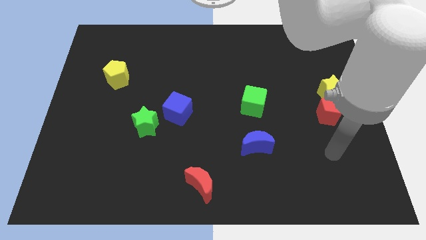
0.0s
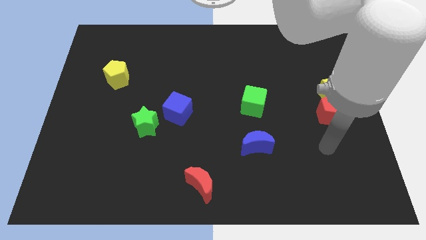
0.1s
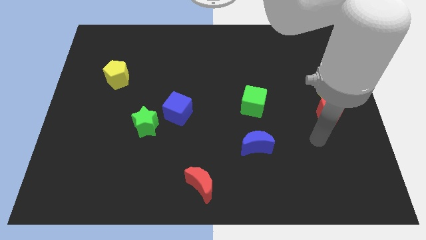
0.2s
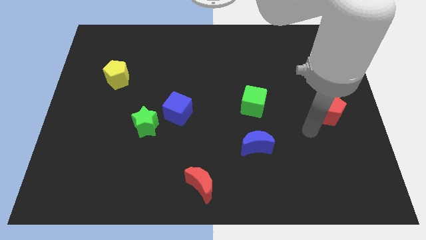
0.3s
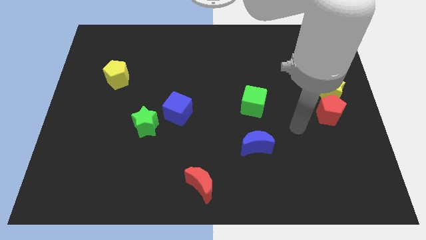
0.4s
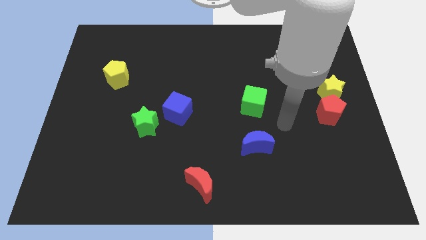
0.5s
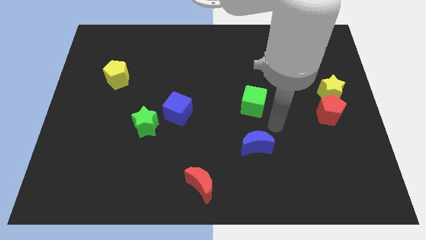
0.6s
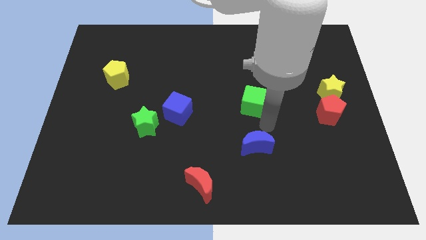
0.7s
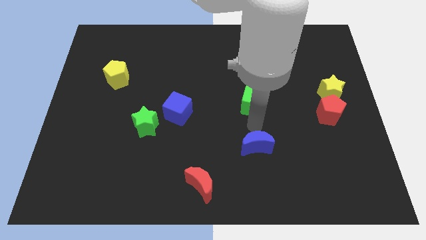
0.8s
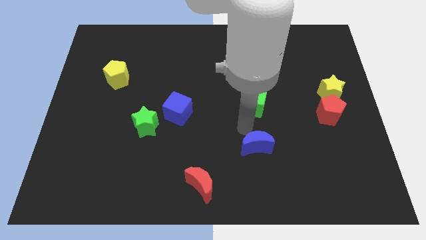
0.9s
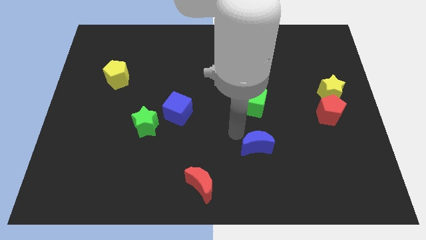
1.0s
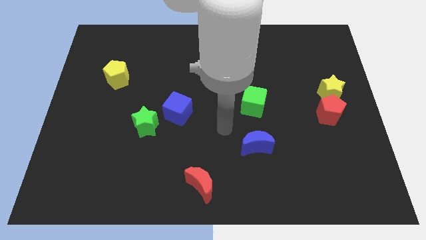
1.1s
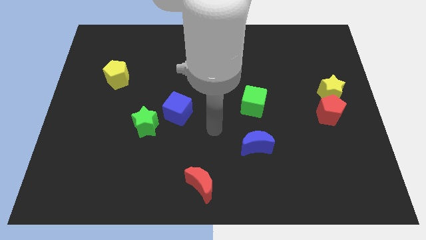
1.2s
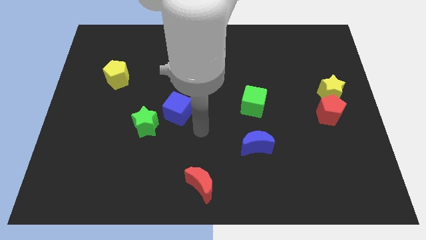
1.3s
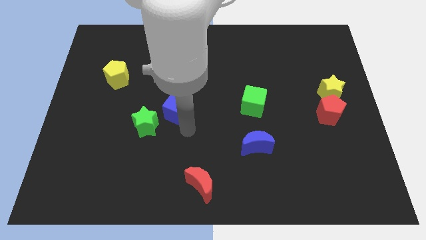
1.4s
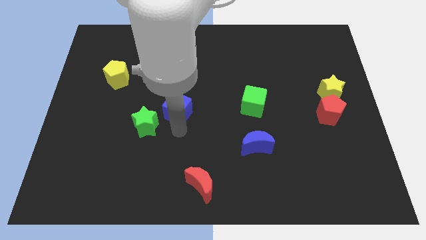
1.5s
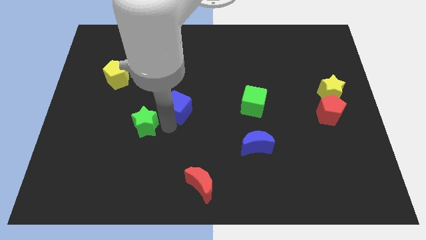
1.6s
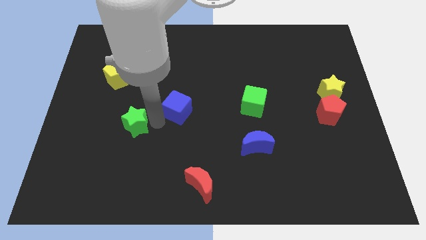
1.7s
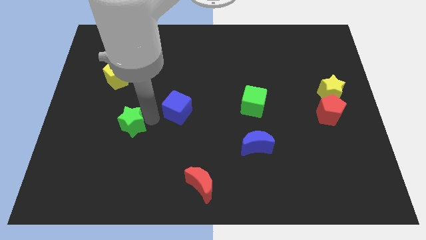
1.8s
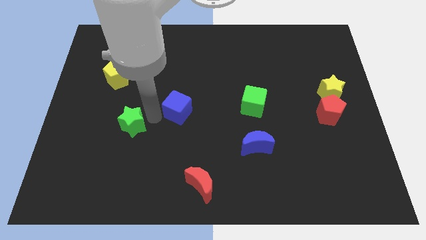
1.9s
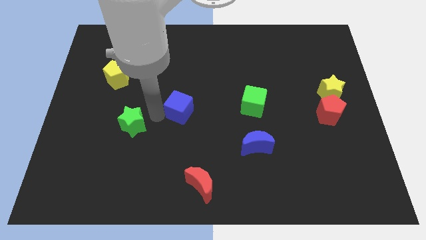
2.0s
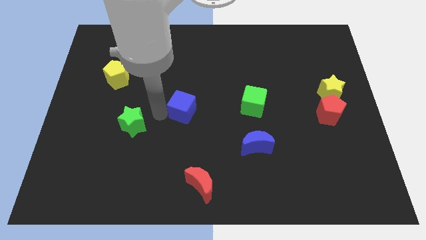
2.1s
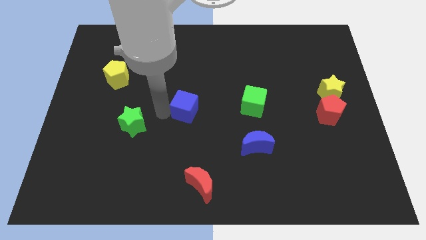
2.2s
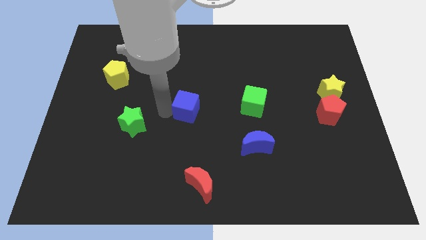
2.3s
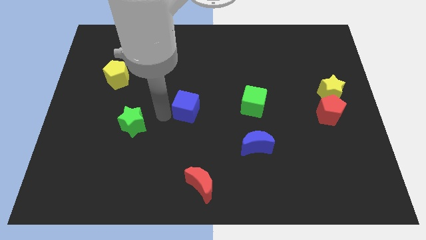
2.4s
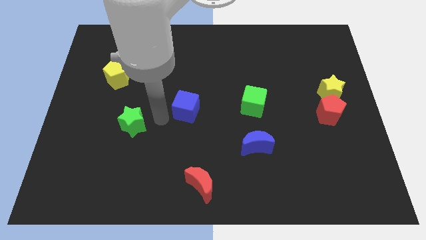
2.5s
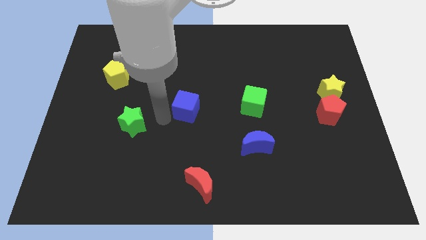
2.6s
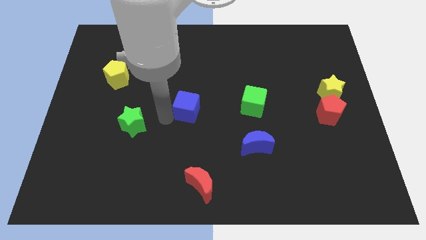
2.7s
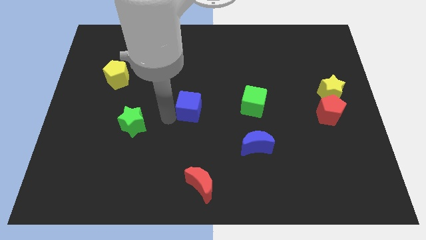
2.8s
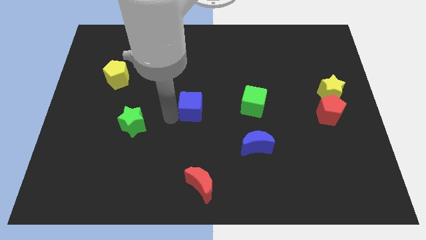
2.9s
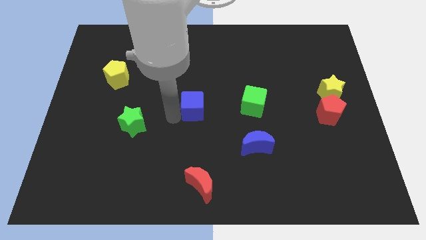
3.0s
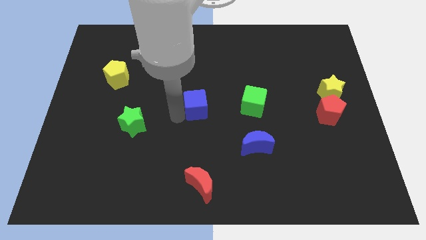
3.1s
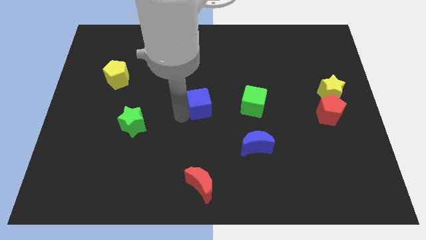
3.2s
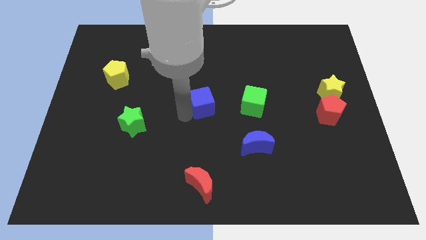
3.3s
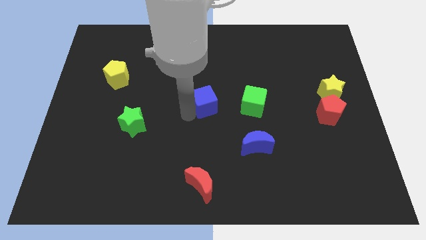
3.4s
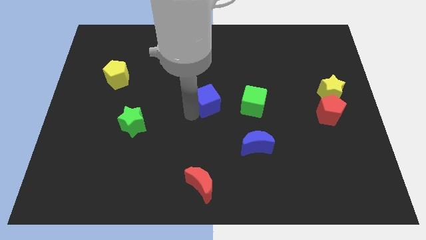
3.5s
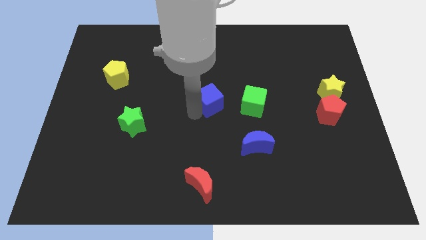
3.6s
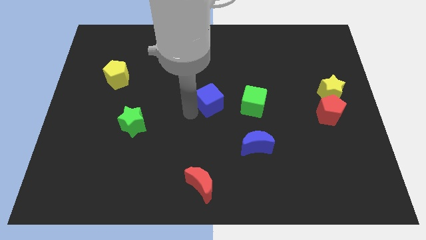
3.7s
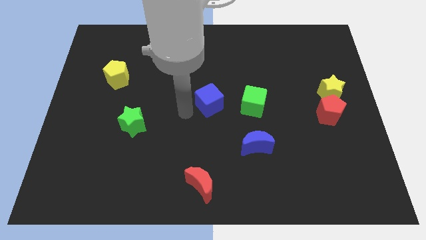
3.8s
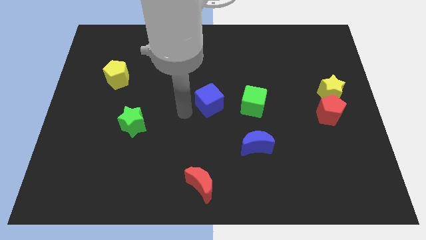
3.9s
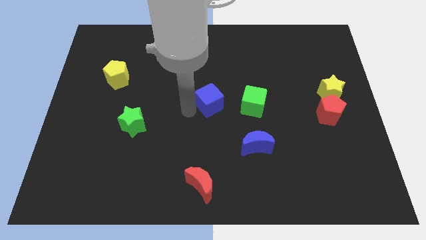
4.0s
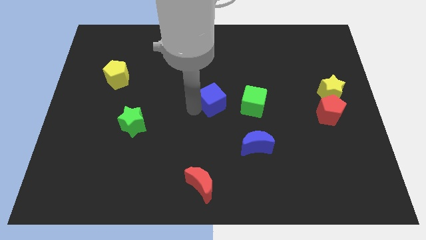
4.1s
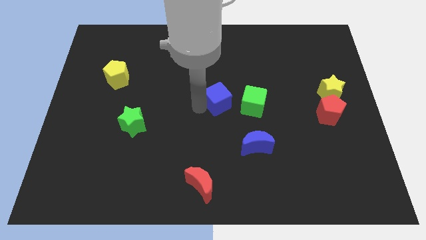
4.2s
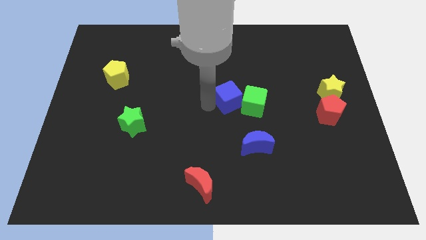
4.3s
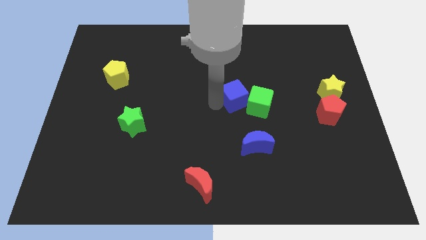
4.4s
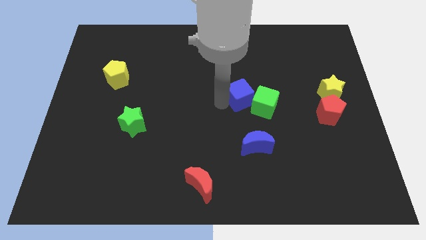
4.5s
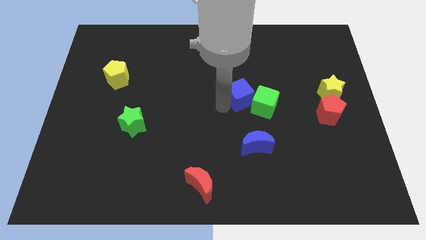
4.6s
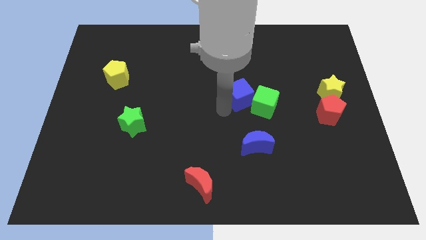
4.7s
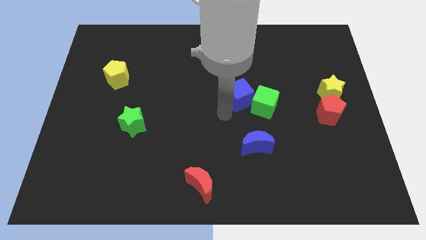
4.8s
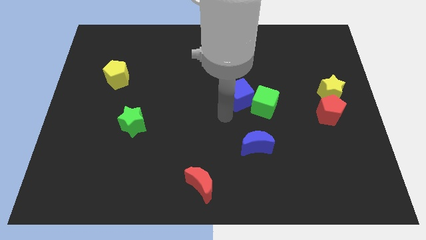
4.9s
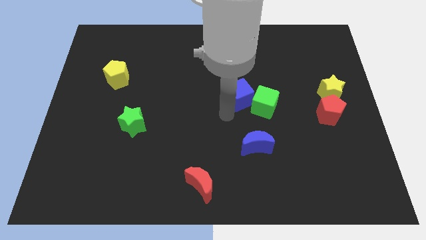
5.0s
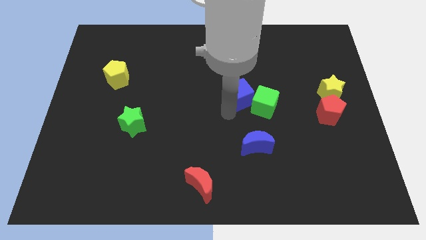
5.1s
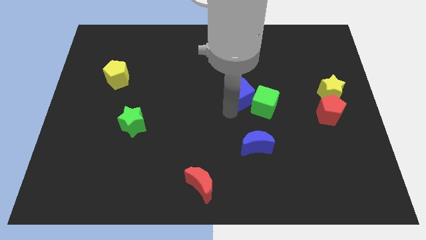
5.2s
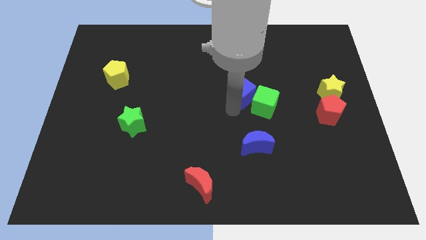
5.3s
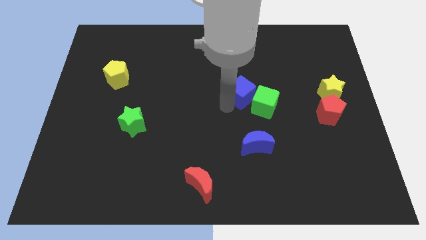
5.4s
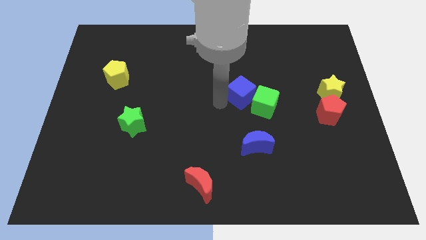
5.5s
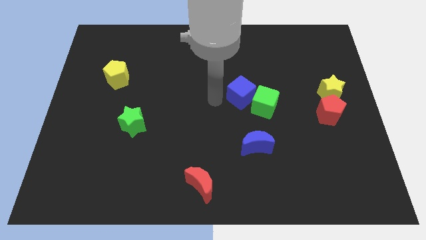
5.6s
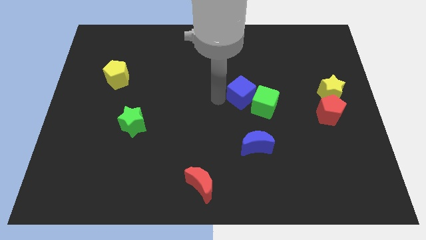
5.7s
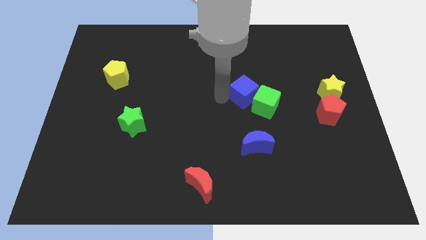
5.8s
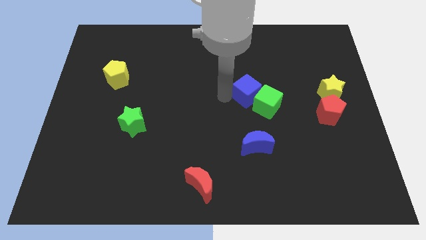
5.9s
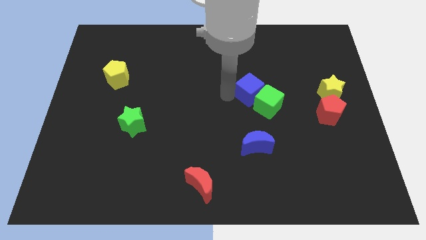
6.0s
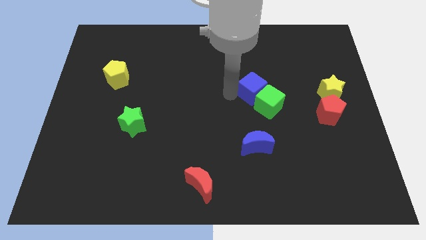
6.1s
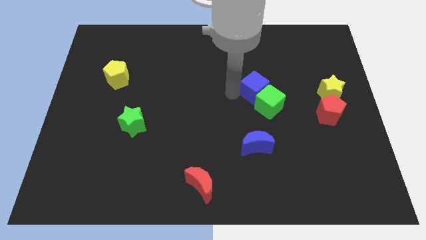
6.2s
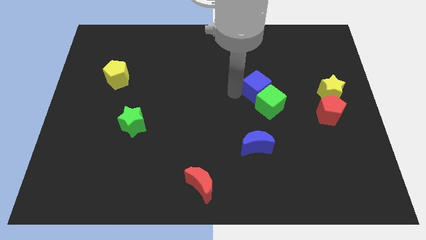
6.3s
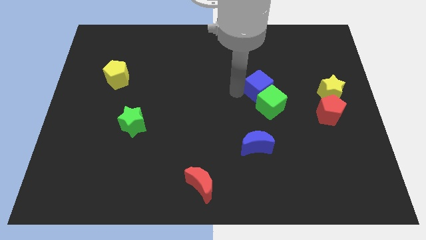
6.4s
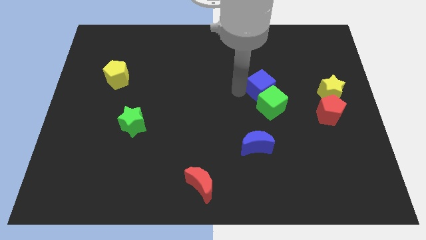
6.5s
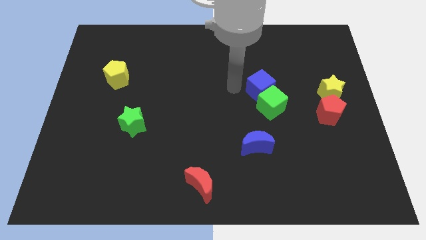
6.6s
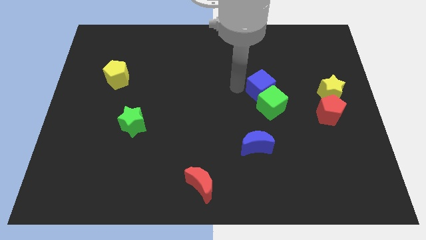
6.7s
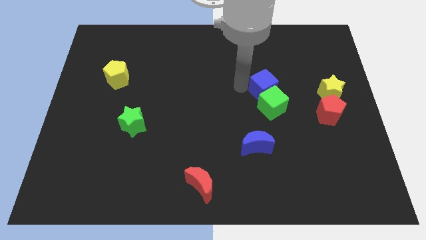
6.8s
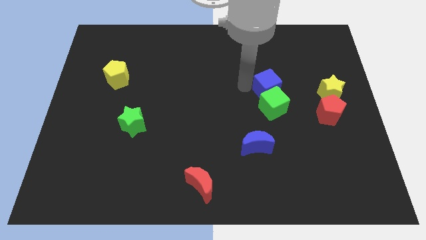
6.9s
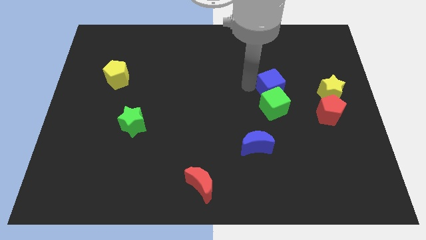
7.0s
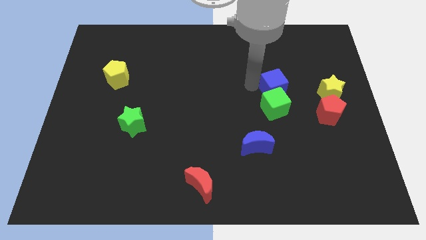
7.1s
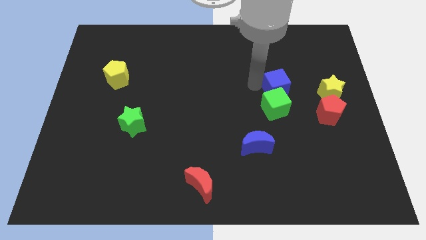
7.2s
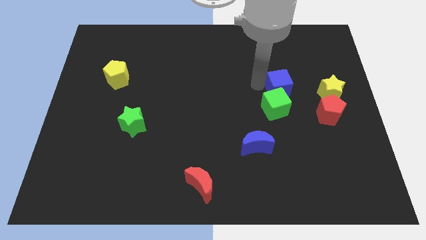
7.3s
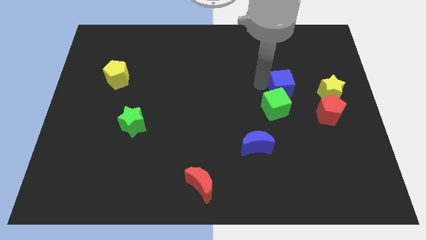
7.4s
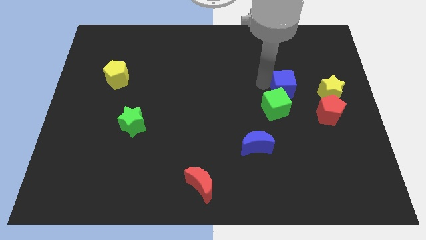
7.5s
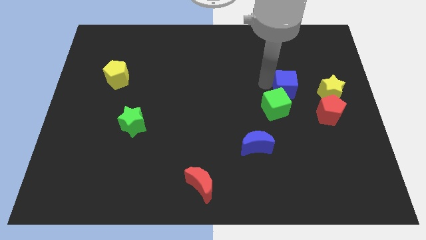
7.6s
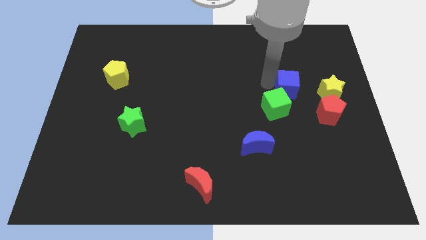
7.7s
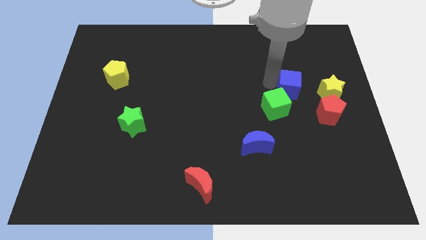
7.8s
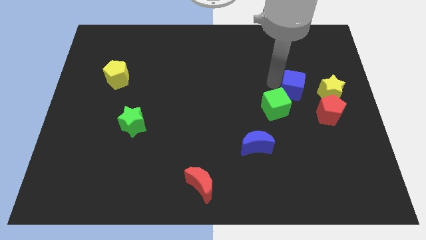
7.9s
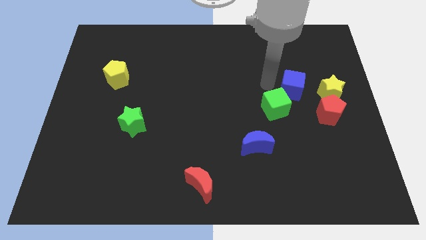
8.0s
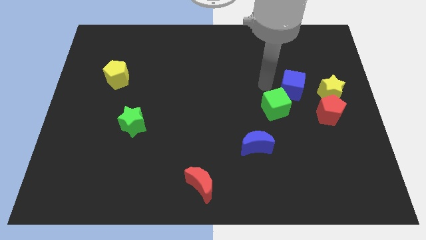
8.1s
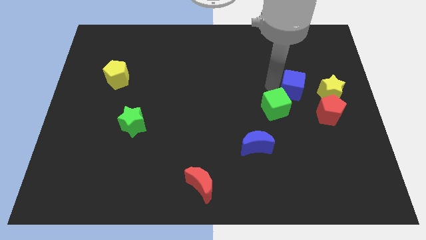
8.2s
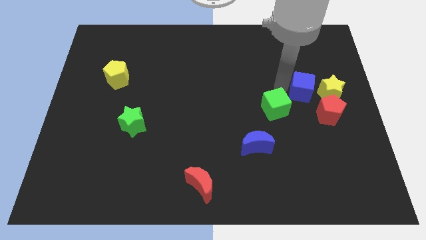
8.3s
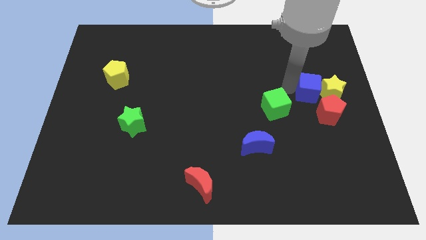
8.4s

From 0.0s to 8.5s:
slide the blue cube next to the yellow star
